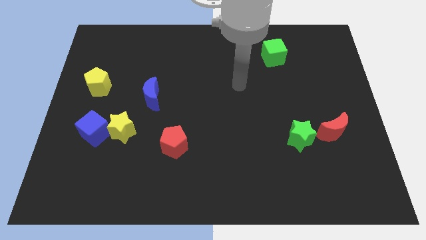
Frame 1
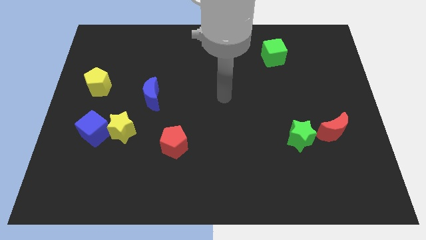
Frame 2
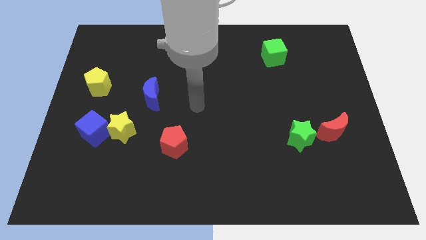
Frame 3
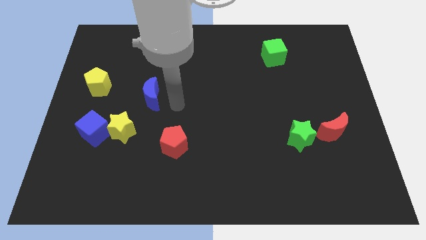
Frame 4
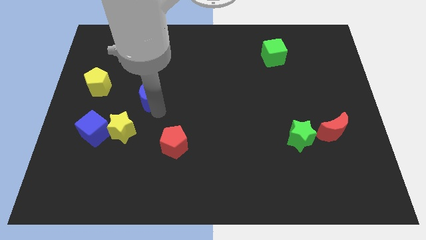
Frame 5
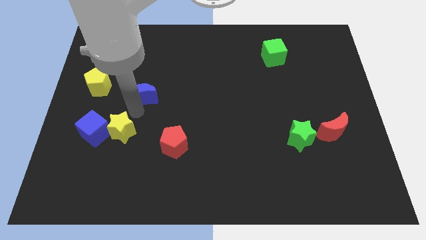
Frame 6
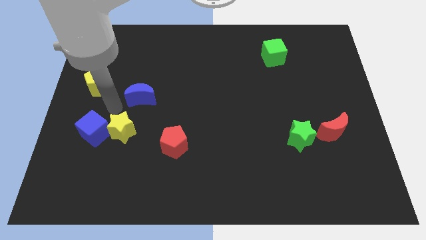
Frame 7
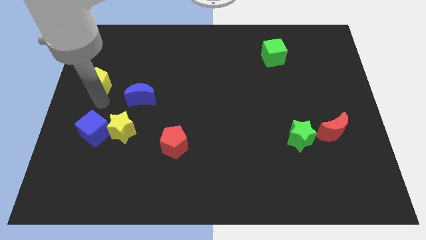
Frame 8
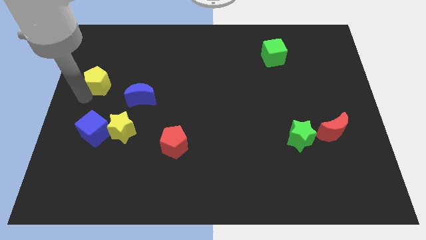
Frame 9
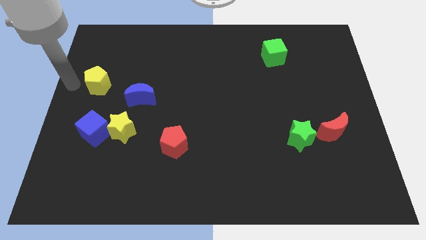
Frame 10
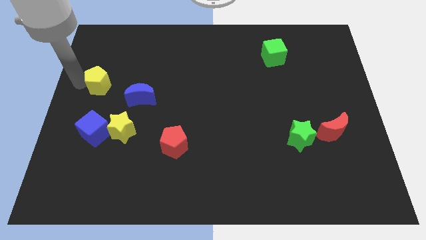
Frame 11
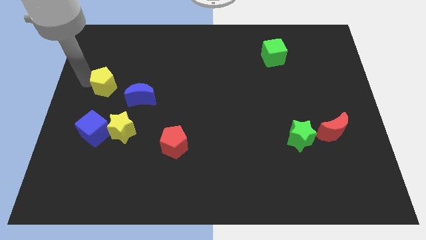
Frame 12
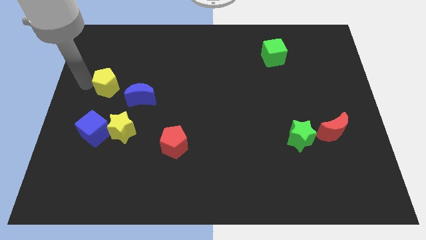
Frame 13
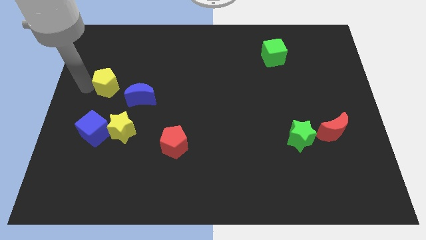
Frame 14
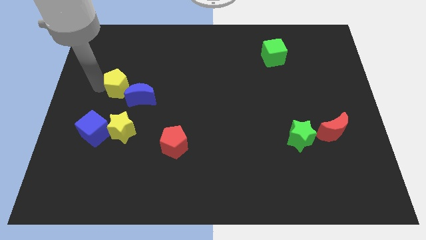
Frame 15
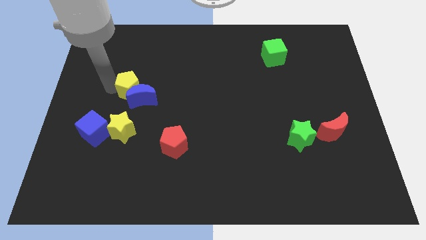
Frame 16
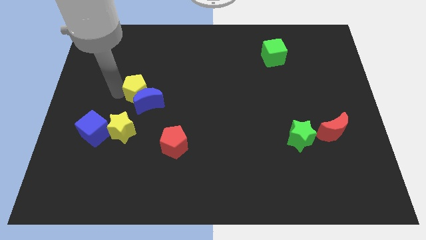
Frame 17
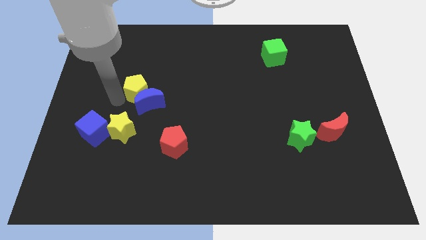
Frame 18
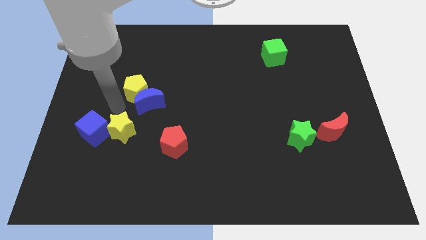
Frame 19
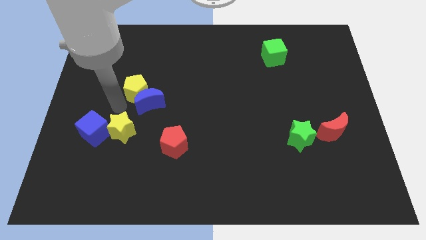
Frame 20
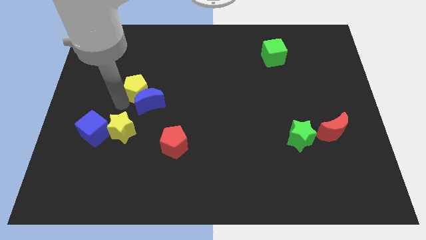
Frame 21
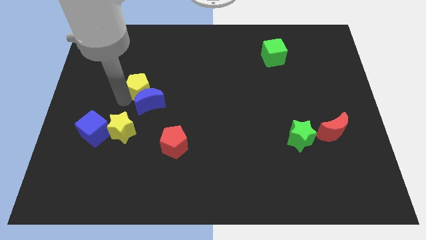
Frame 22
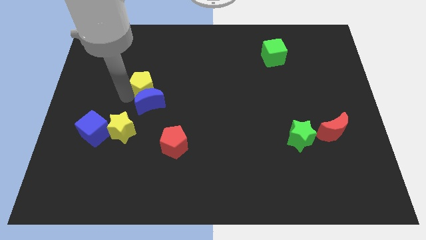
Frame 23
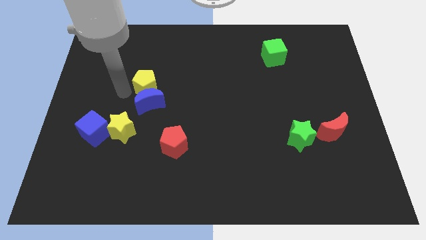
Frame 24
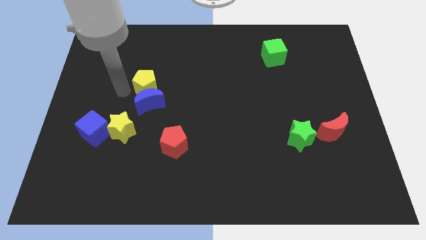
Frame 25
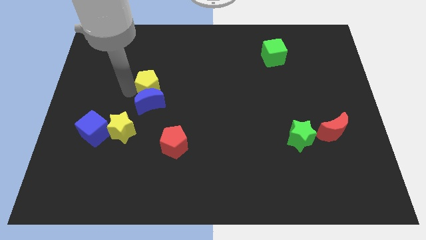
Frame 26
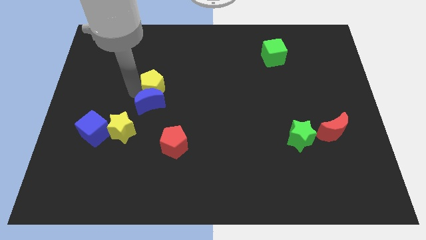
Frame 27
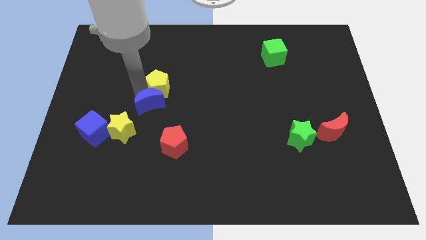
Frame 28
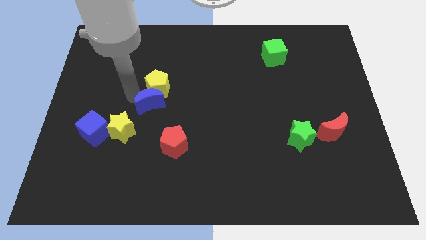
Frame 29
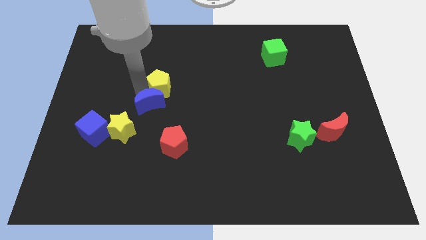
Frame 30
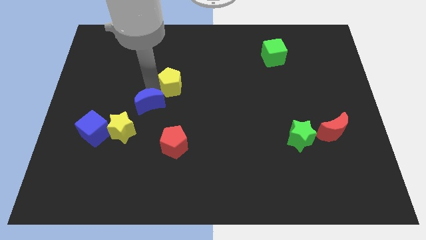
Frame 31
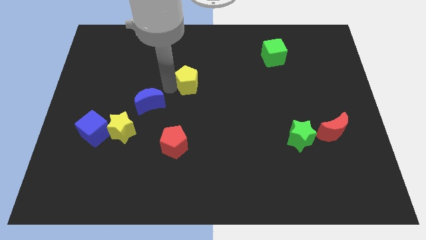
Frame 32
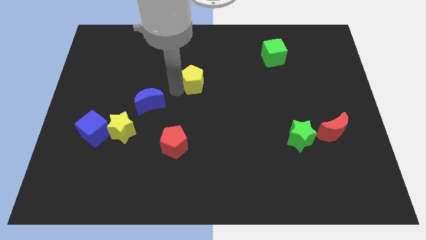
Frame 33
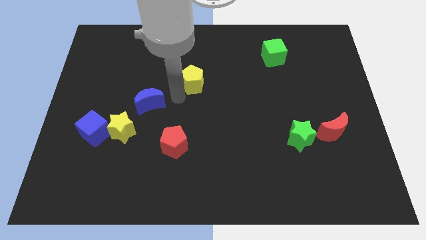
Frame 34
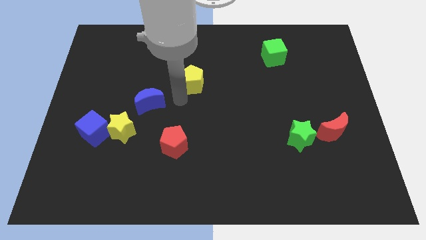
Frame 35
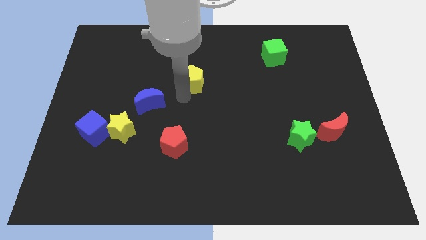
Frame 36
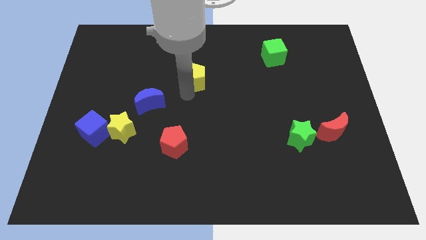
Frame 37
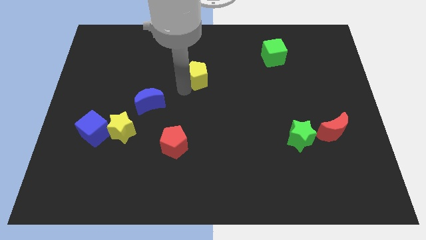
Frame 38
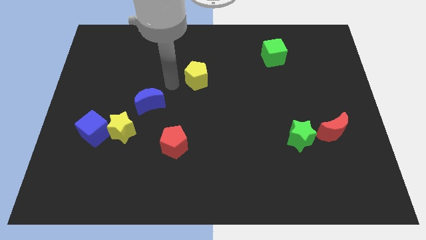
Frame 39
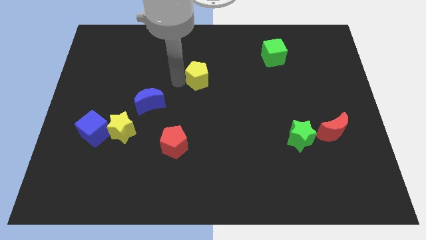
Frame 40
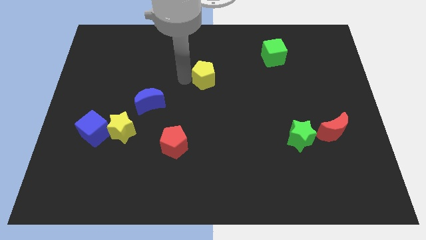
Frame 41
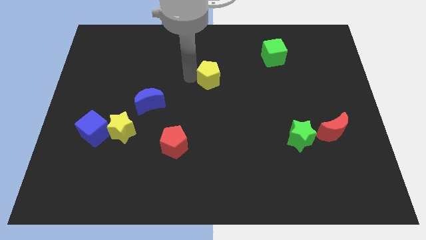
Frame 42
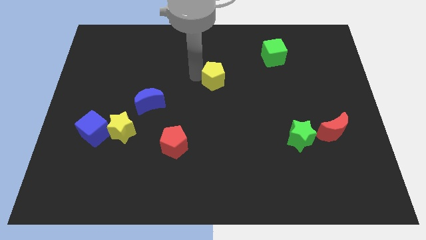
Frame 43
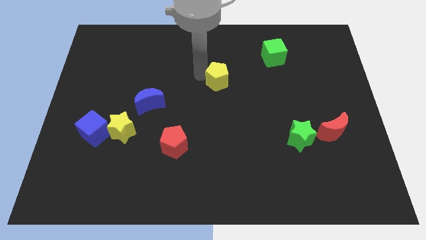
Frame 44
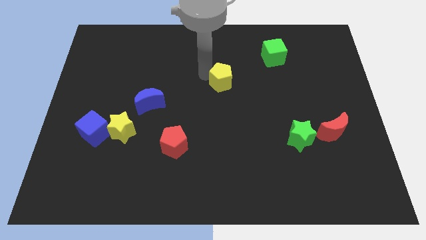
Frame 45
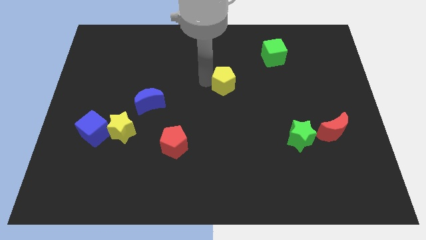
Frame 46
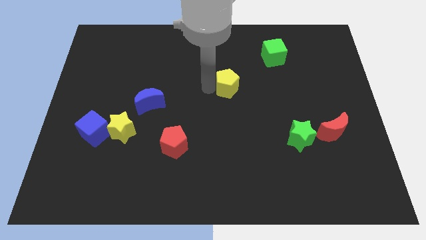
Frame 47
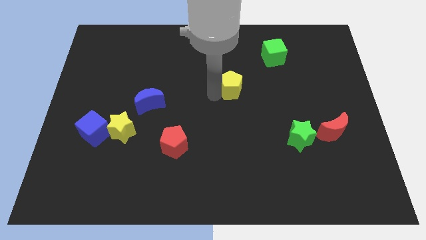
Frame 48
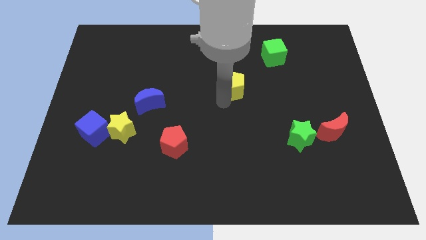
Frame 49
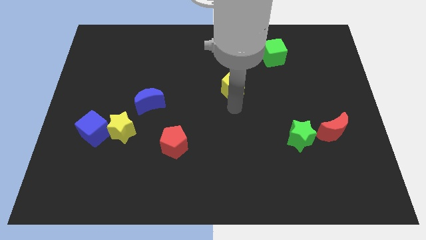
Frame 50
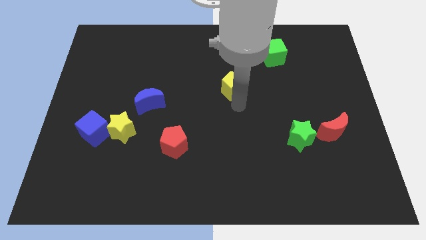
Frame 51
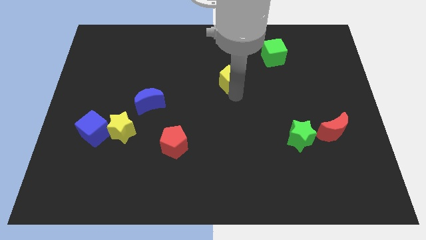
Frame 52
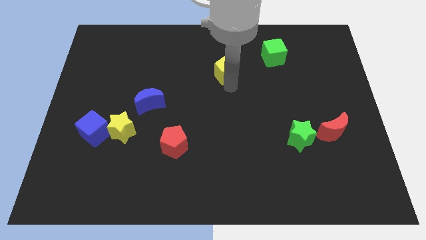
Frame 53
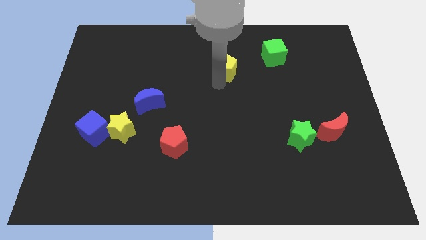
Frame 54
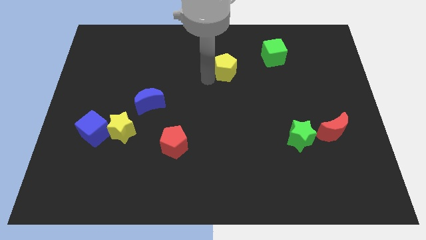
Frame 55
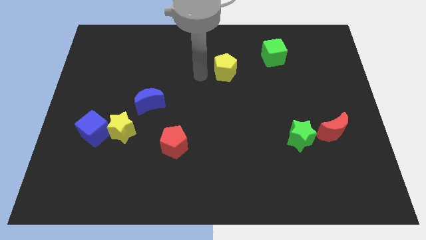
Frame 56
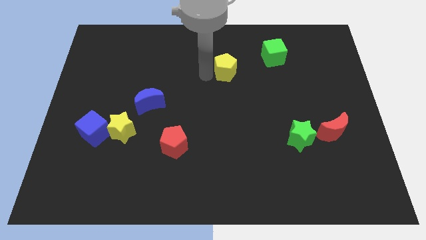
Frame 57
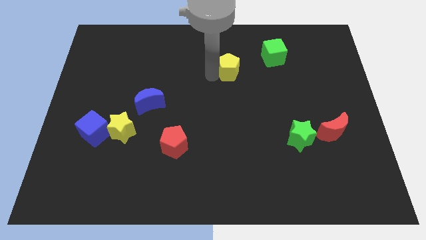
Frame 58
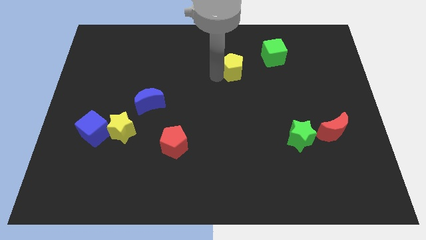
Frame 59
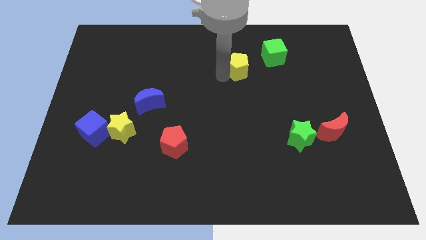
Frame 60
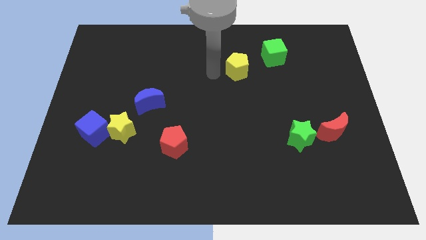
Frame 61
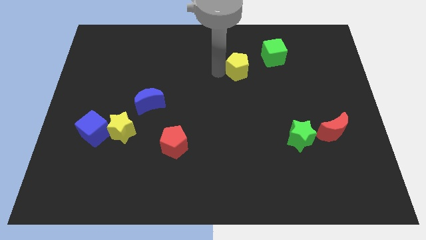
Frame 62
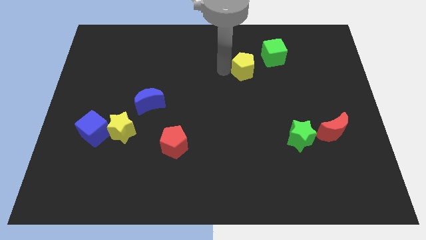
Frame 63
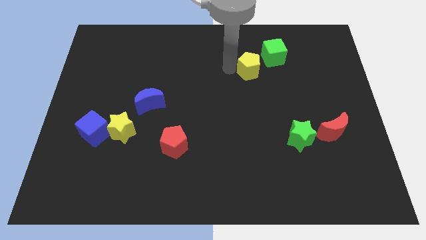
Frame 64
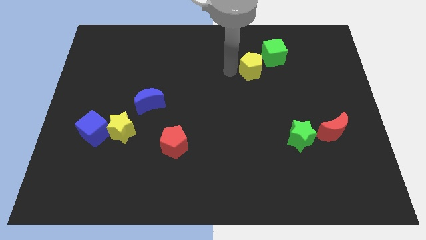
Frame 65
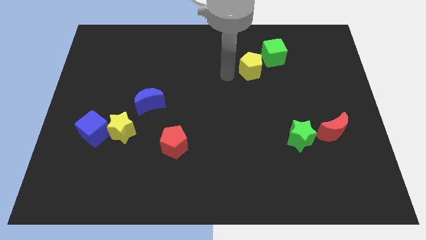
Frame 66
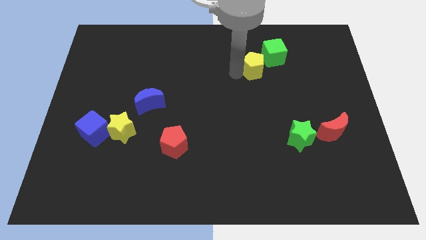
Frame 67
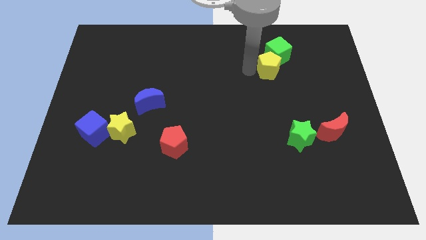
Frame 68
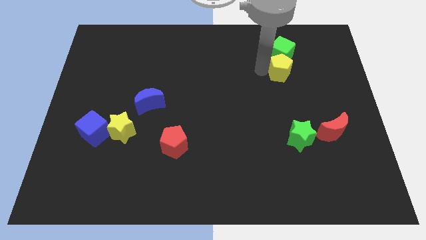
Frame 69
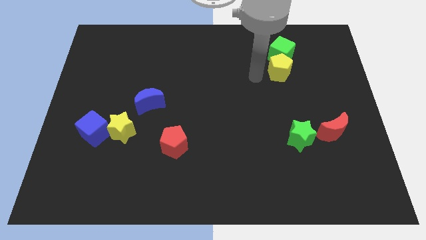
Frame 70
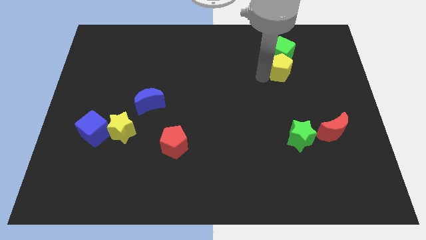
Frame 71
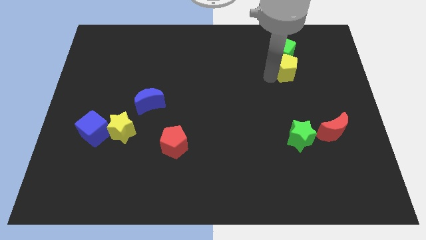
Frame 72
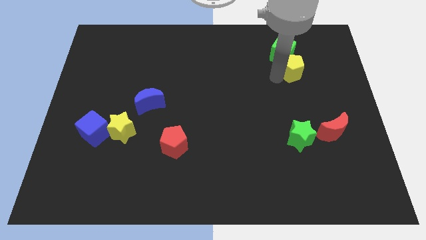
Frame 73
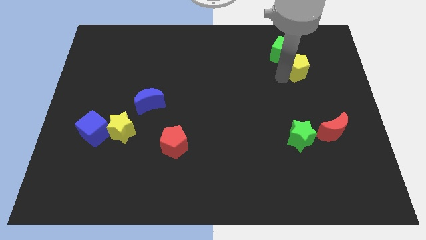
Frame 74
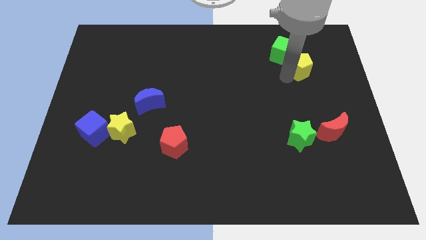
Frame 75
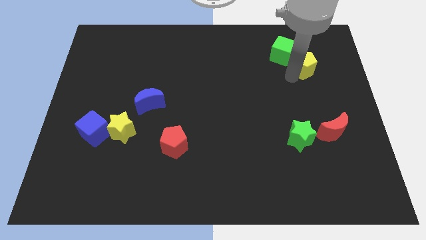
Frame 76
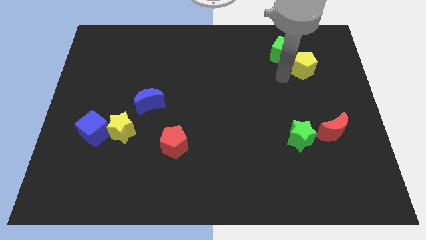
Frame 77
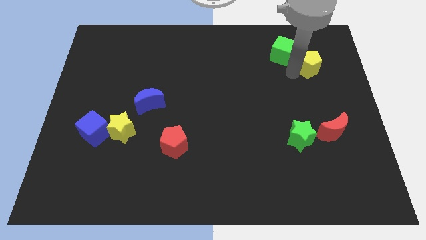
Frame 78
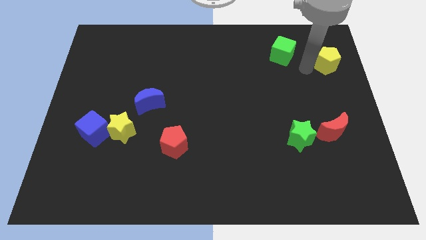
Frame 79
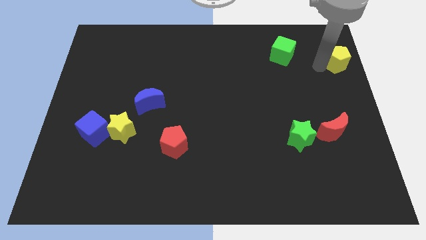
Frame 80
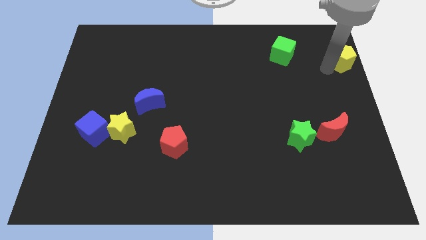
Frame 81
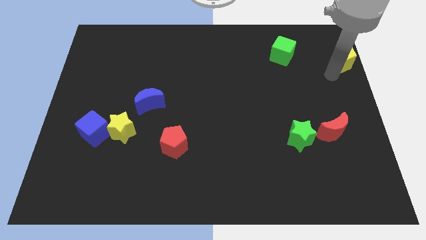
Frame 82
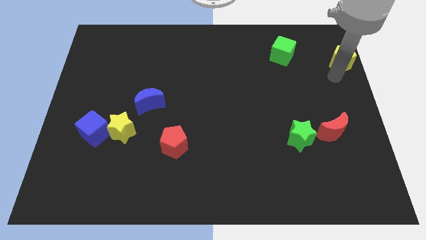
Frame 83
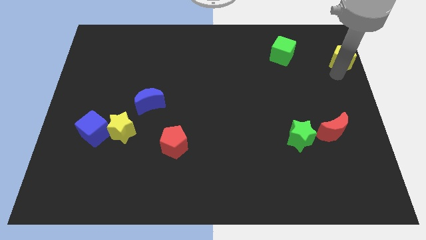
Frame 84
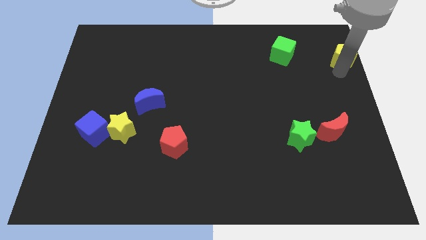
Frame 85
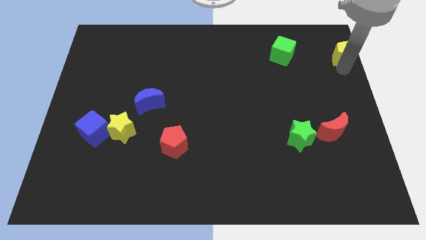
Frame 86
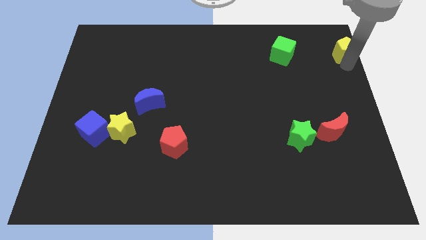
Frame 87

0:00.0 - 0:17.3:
move the yellow pentagon to the top right of the board
